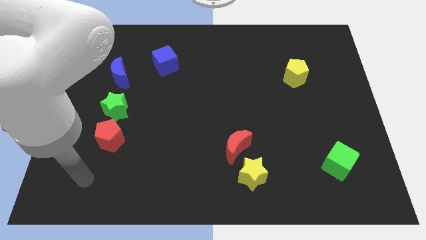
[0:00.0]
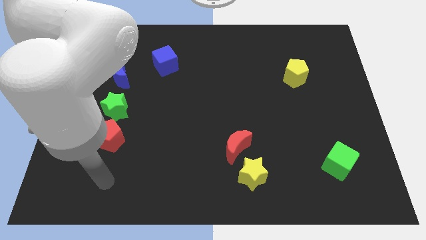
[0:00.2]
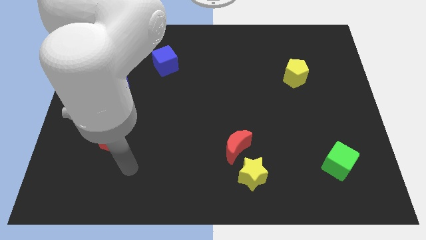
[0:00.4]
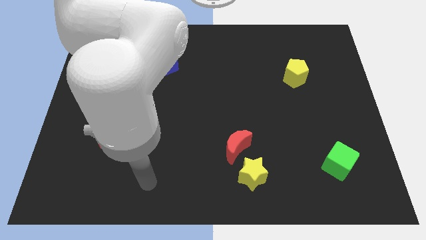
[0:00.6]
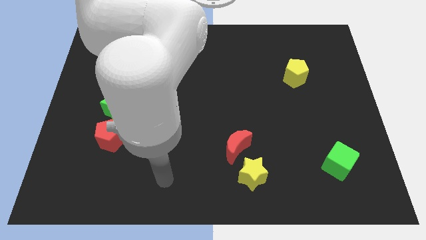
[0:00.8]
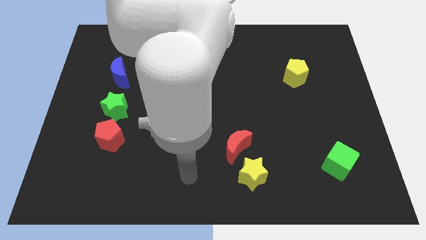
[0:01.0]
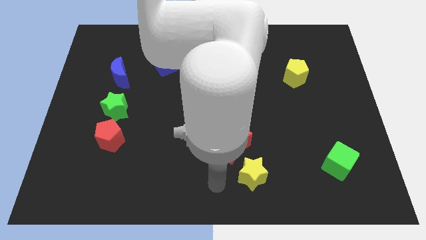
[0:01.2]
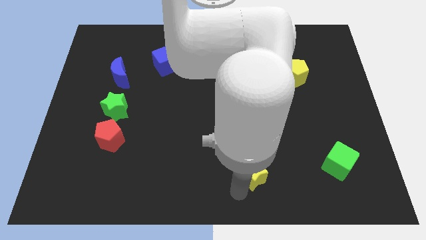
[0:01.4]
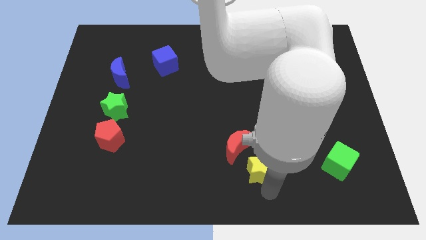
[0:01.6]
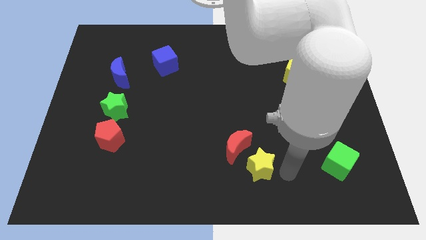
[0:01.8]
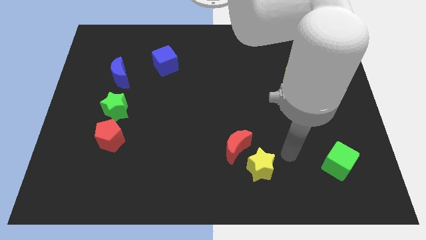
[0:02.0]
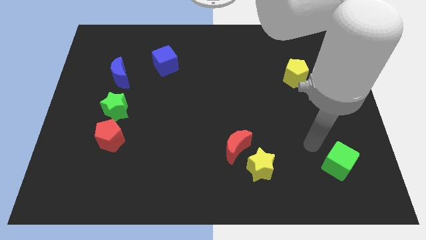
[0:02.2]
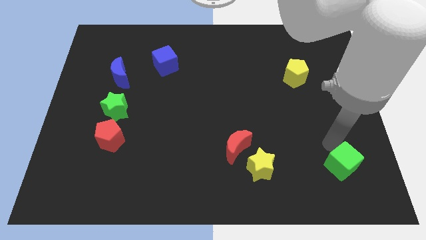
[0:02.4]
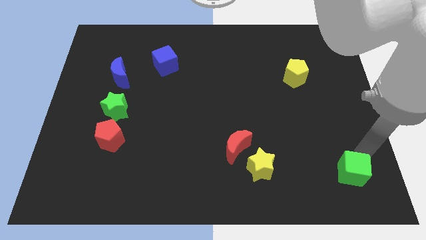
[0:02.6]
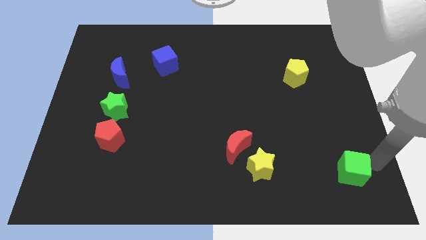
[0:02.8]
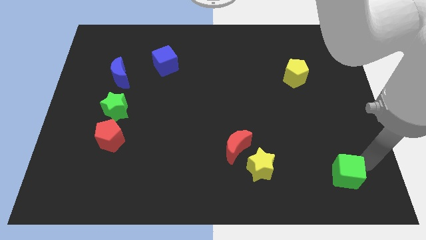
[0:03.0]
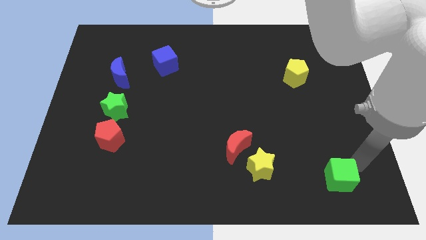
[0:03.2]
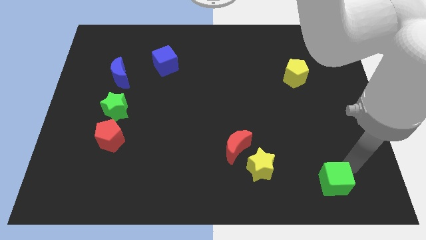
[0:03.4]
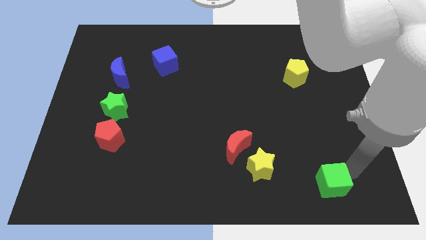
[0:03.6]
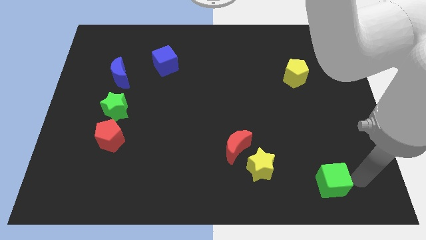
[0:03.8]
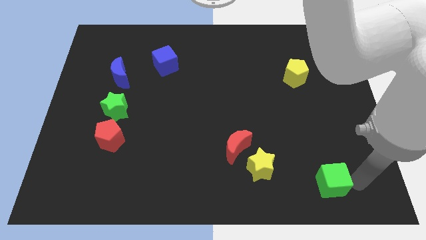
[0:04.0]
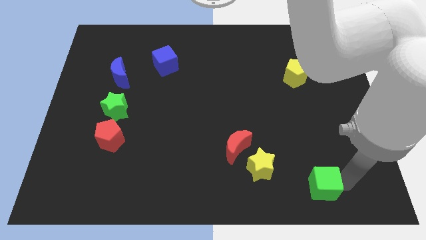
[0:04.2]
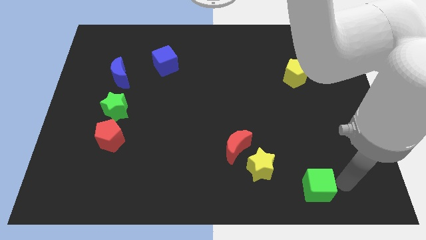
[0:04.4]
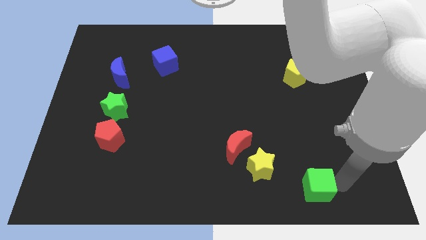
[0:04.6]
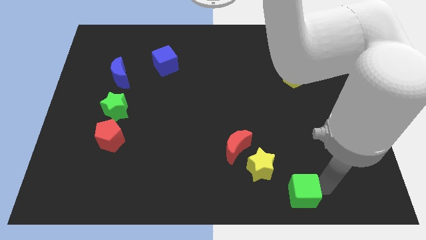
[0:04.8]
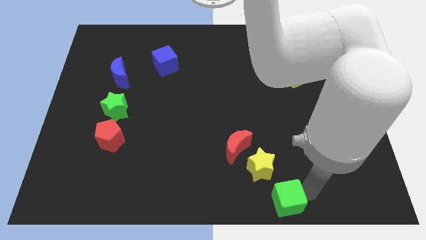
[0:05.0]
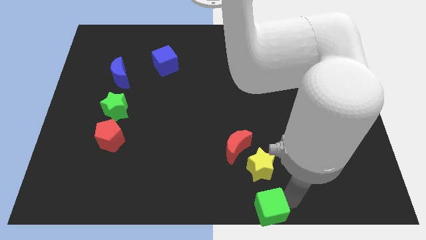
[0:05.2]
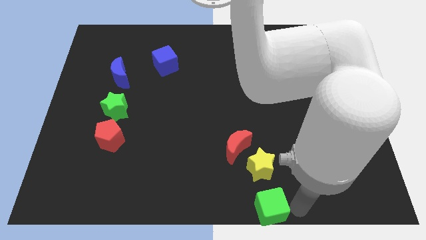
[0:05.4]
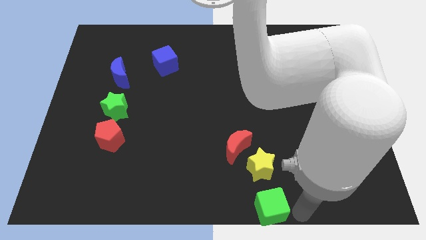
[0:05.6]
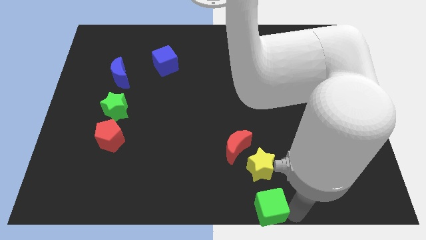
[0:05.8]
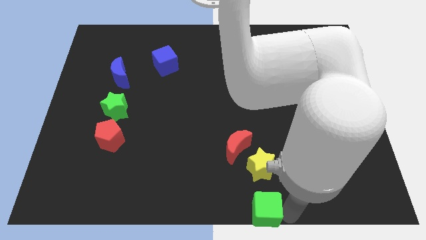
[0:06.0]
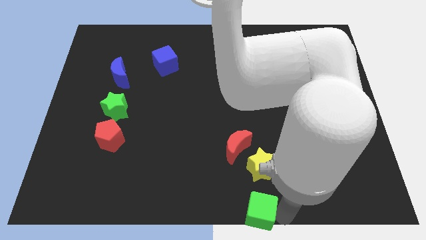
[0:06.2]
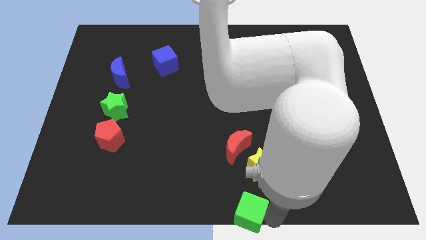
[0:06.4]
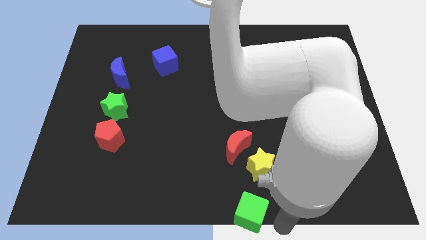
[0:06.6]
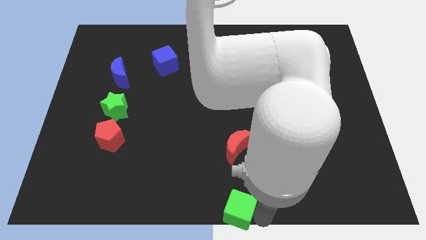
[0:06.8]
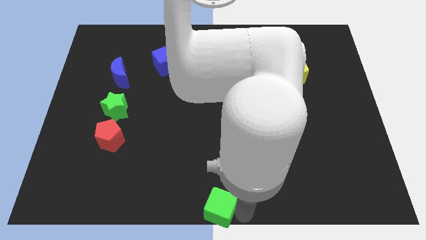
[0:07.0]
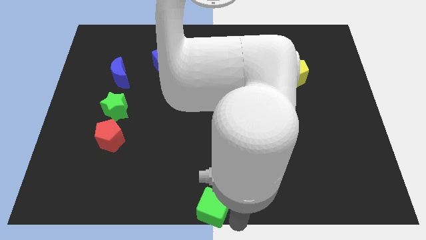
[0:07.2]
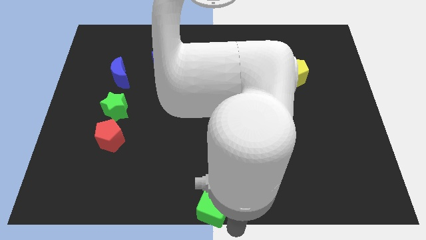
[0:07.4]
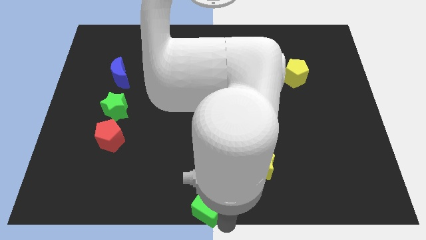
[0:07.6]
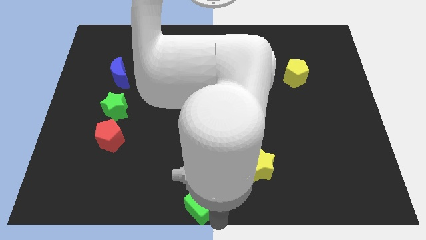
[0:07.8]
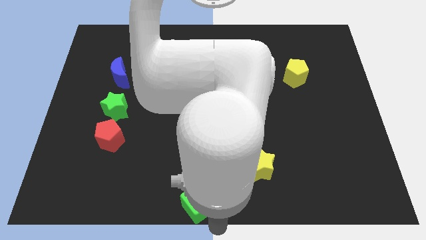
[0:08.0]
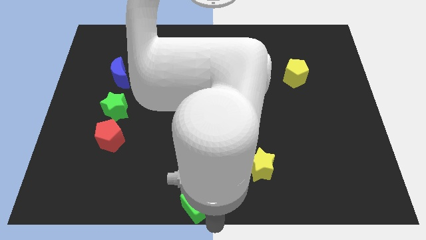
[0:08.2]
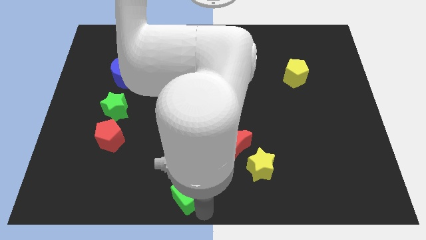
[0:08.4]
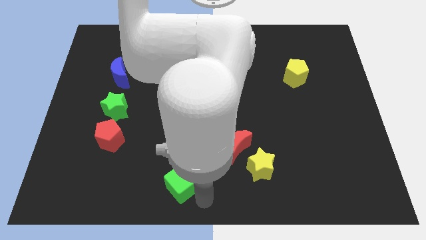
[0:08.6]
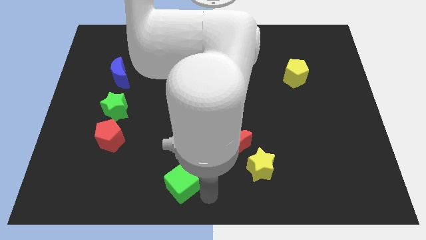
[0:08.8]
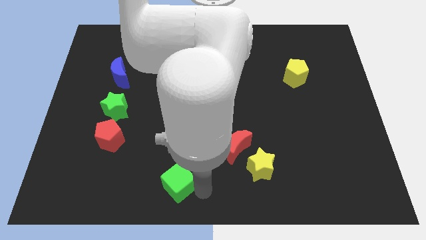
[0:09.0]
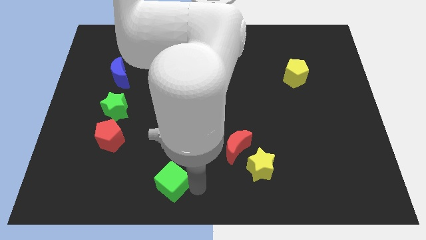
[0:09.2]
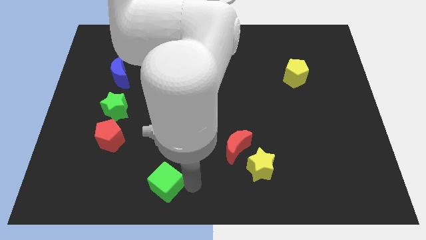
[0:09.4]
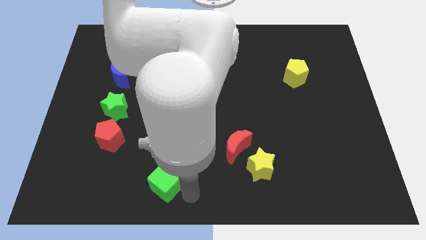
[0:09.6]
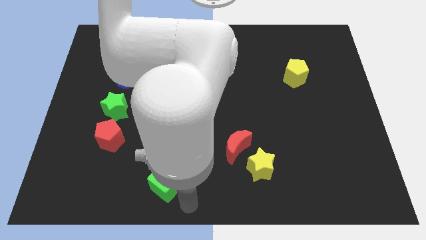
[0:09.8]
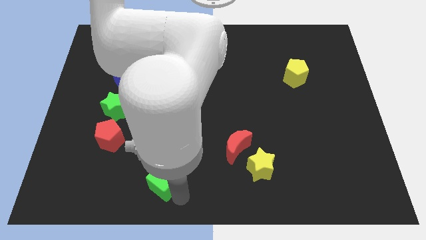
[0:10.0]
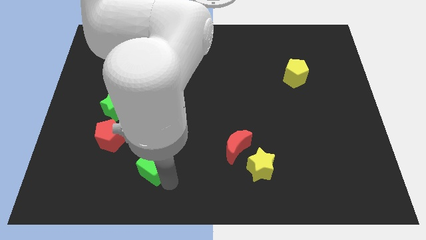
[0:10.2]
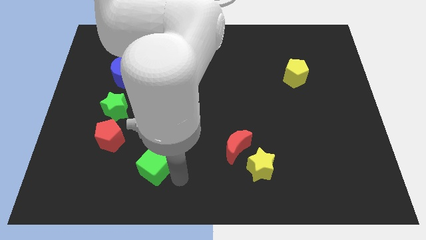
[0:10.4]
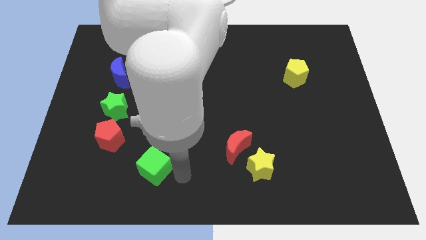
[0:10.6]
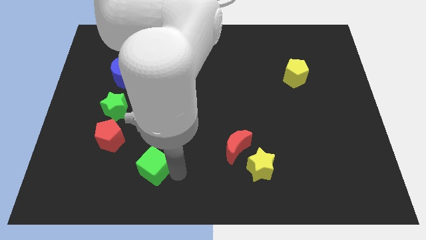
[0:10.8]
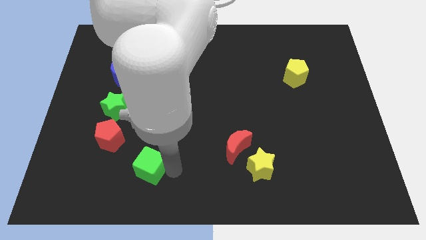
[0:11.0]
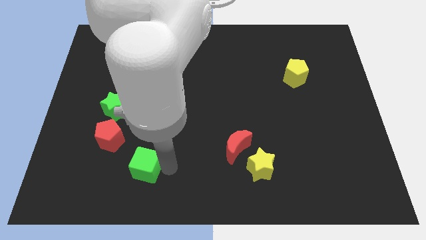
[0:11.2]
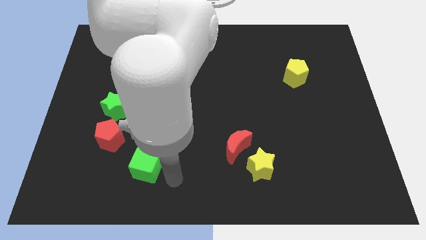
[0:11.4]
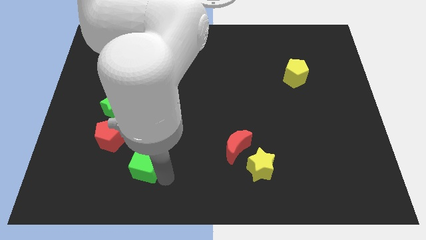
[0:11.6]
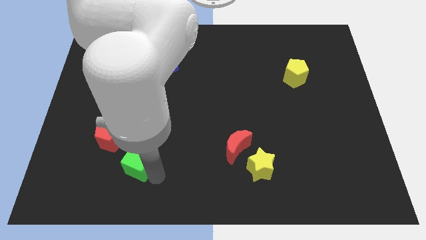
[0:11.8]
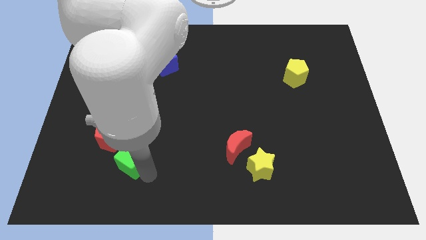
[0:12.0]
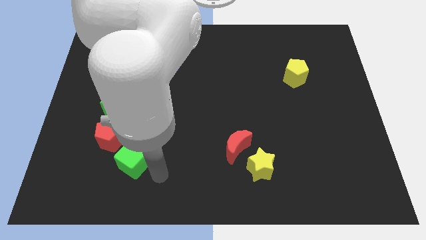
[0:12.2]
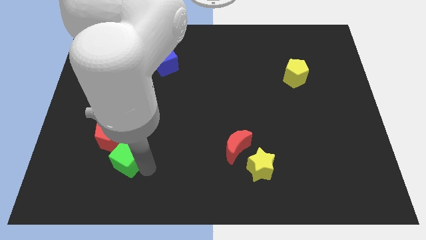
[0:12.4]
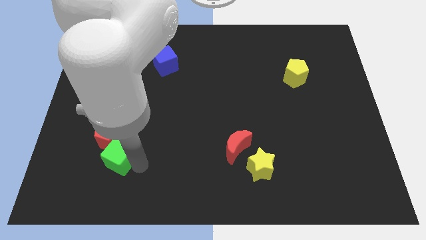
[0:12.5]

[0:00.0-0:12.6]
push the green cube to the bottom of the green star
